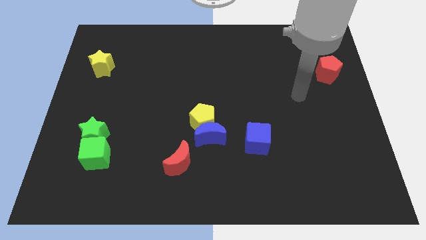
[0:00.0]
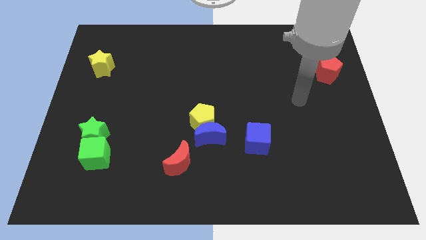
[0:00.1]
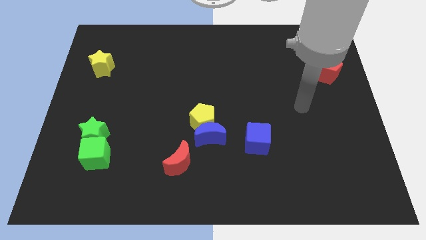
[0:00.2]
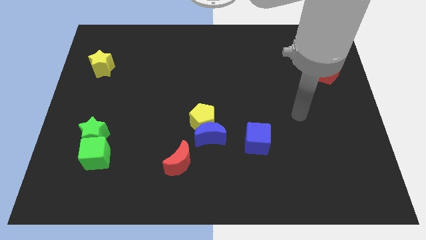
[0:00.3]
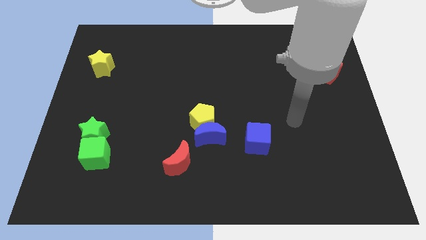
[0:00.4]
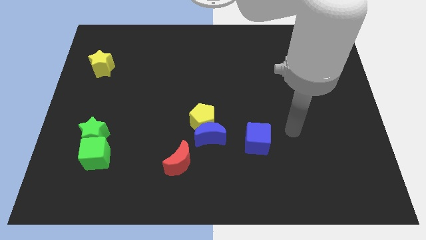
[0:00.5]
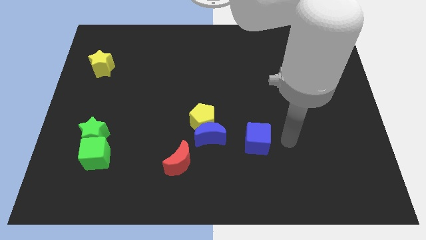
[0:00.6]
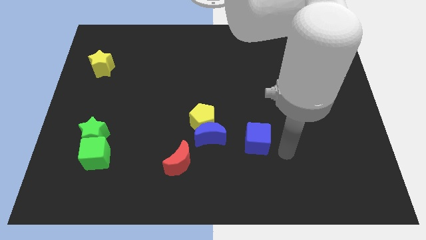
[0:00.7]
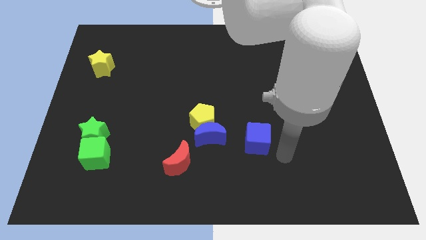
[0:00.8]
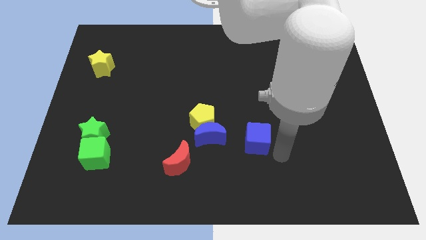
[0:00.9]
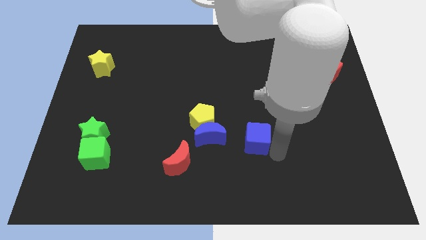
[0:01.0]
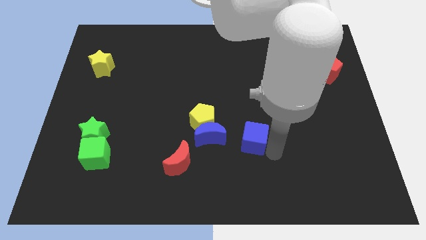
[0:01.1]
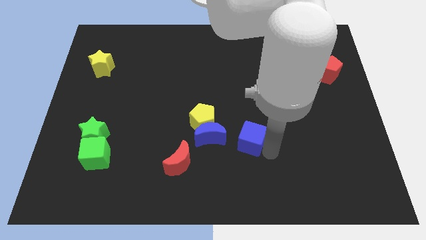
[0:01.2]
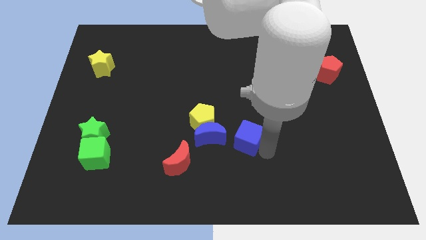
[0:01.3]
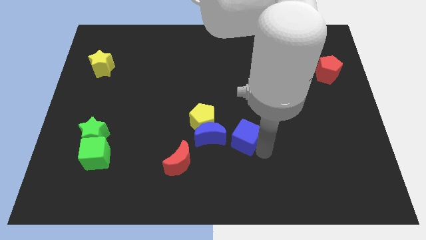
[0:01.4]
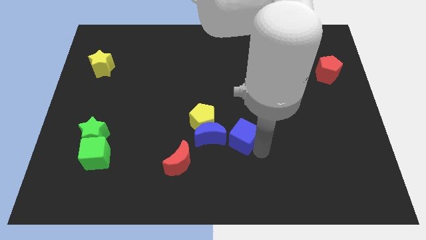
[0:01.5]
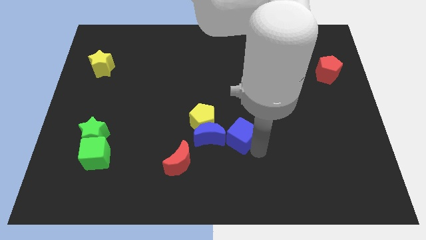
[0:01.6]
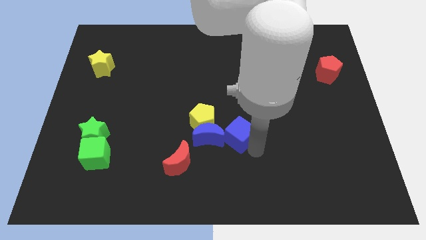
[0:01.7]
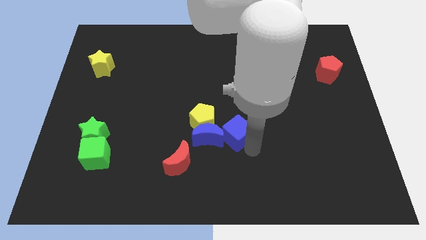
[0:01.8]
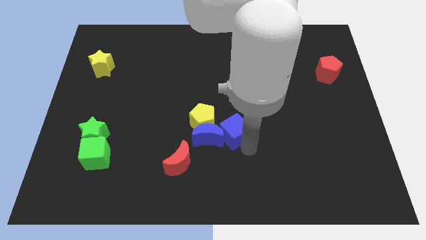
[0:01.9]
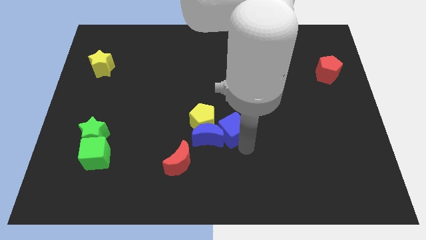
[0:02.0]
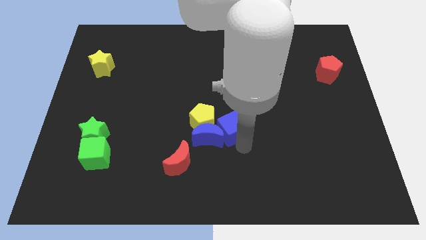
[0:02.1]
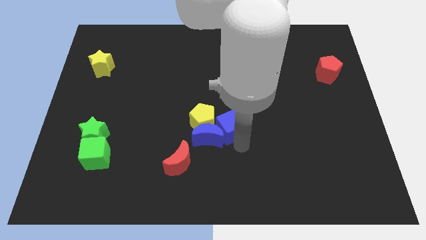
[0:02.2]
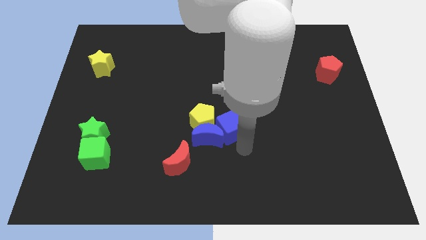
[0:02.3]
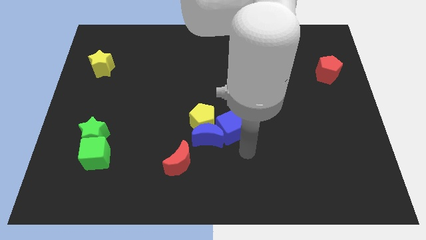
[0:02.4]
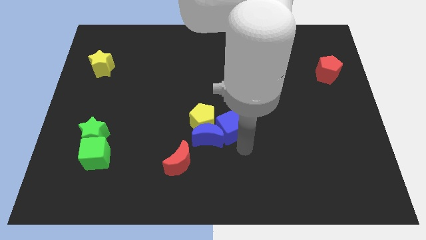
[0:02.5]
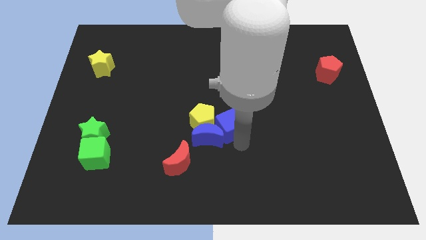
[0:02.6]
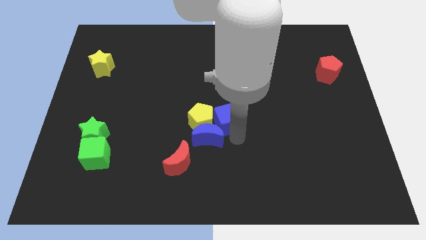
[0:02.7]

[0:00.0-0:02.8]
move the blue cube diagonally upwards and left slightly

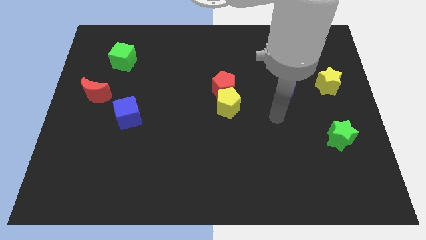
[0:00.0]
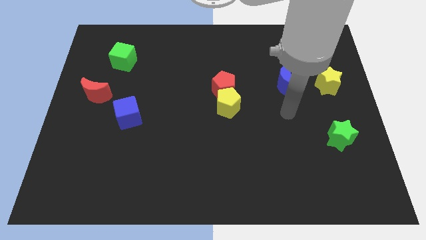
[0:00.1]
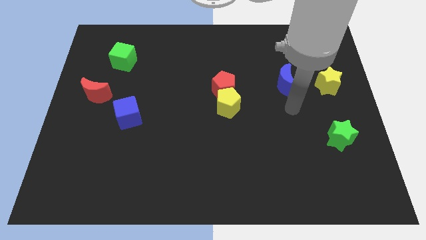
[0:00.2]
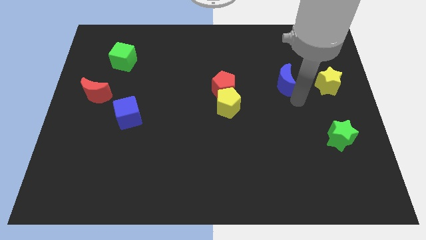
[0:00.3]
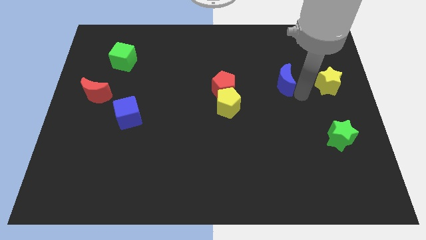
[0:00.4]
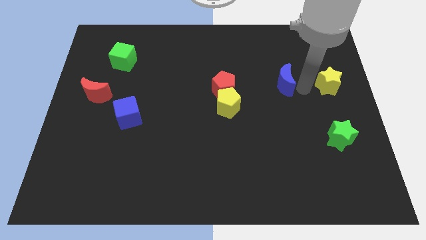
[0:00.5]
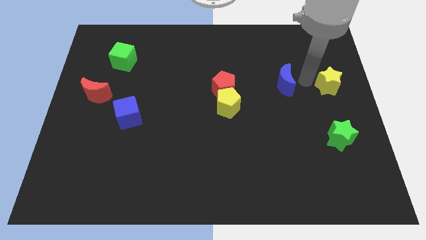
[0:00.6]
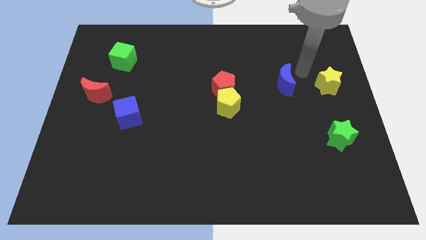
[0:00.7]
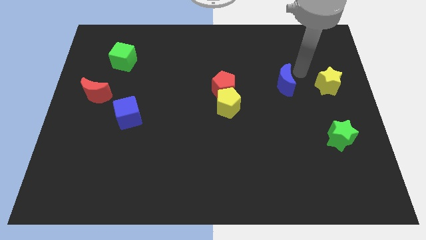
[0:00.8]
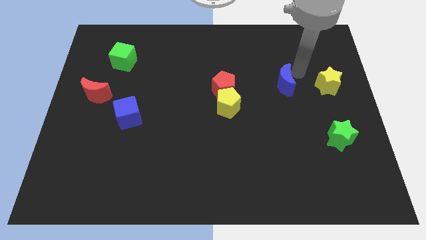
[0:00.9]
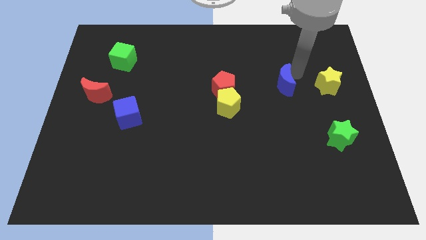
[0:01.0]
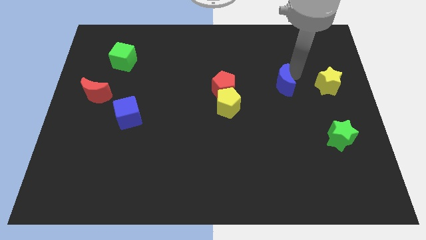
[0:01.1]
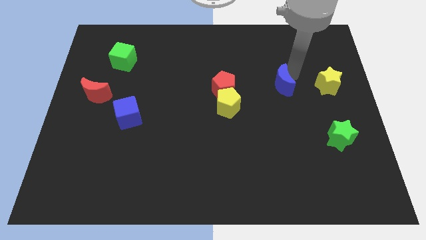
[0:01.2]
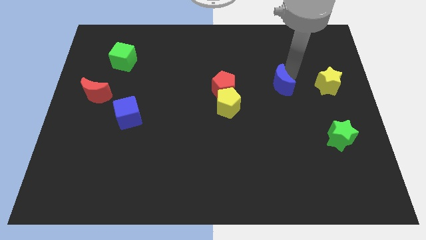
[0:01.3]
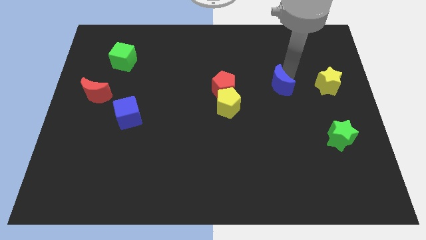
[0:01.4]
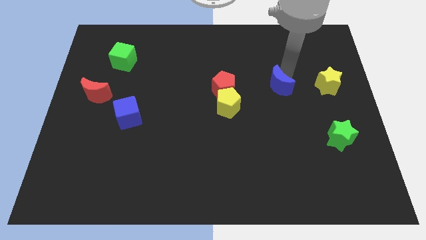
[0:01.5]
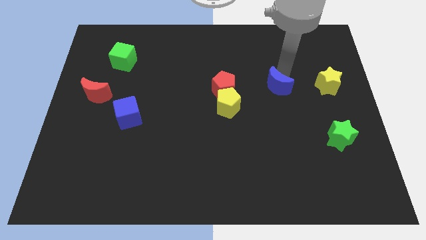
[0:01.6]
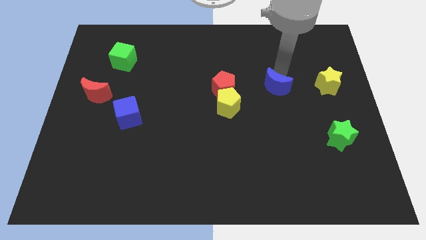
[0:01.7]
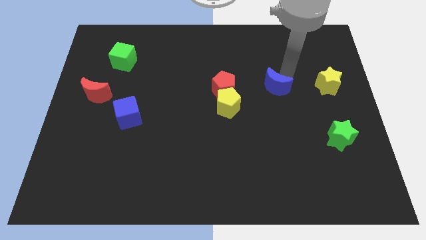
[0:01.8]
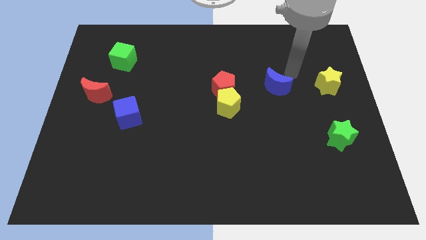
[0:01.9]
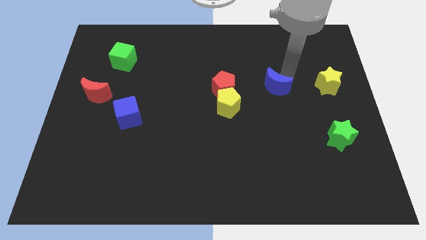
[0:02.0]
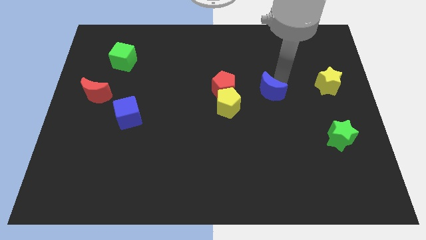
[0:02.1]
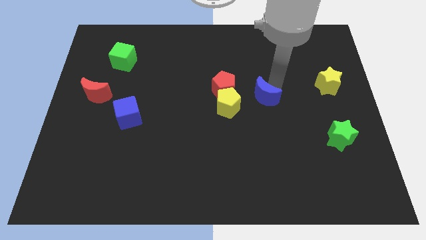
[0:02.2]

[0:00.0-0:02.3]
move the blue moon a bit down and to the left

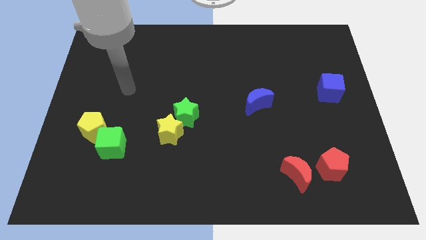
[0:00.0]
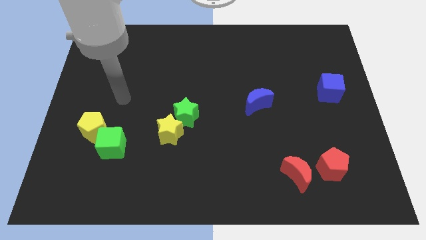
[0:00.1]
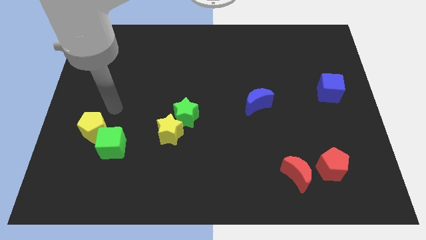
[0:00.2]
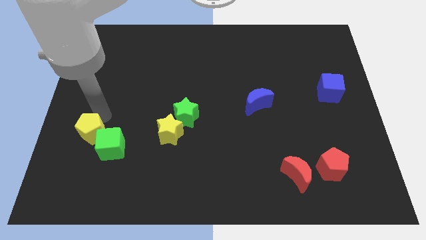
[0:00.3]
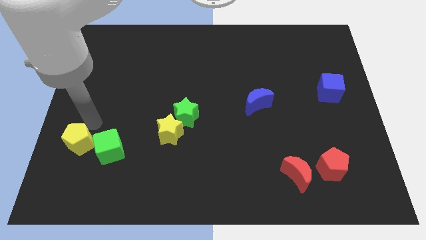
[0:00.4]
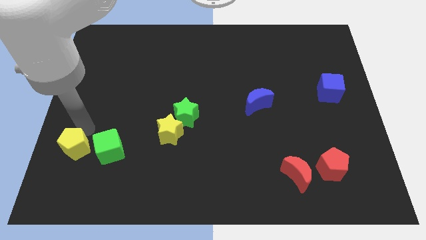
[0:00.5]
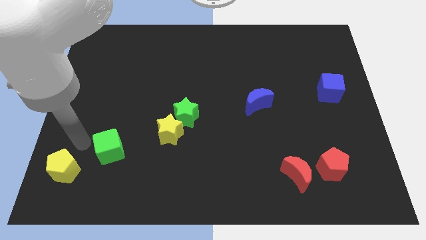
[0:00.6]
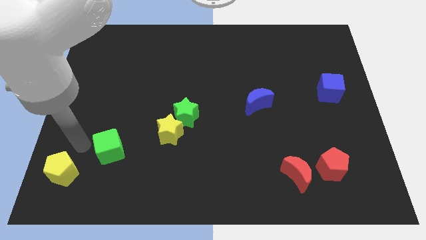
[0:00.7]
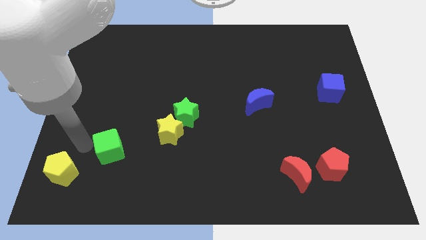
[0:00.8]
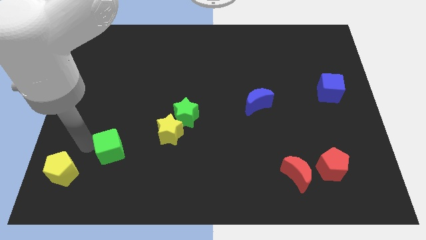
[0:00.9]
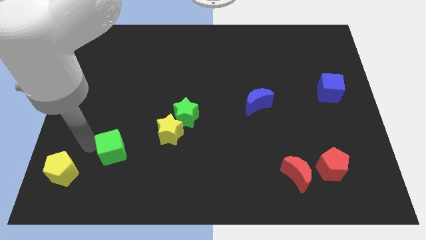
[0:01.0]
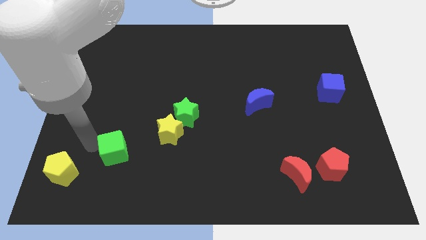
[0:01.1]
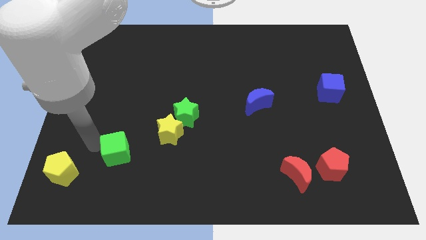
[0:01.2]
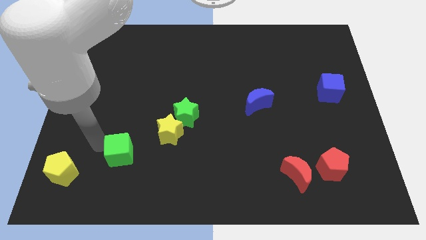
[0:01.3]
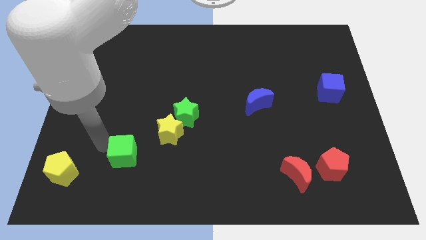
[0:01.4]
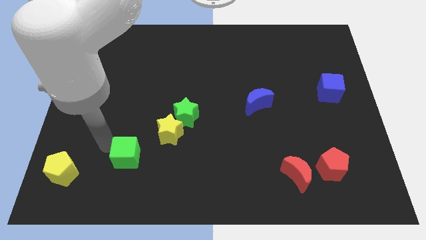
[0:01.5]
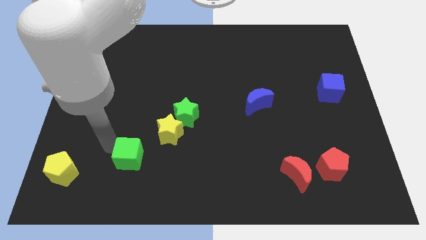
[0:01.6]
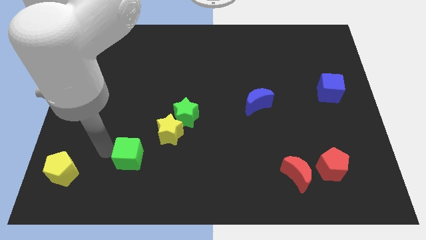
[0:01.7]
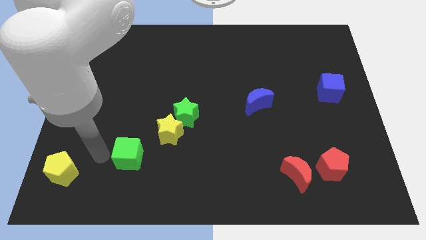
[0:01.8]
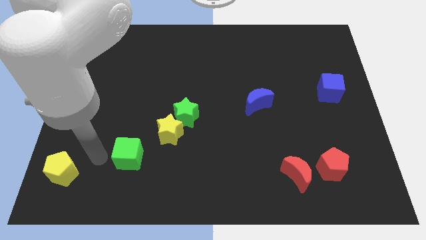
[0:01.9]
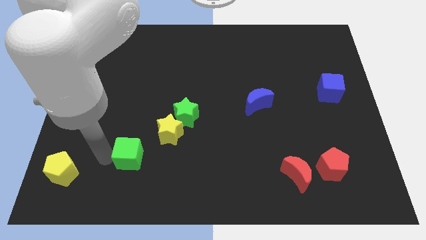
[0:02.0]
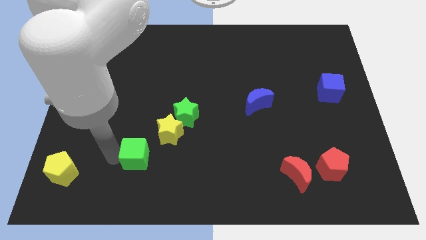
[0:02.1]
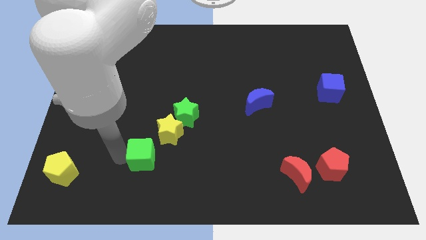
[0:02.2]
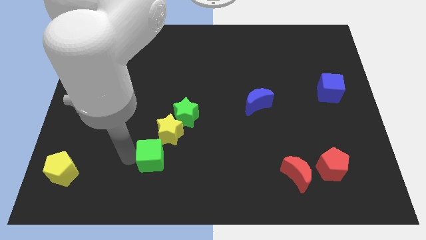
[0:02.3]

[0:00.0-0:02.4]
slightly push the green cube to the right

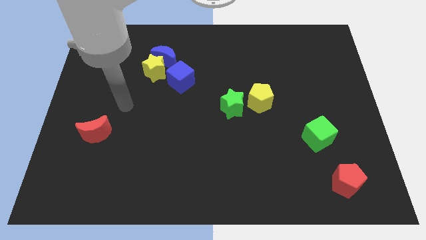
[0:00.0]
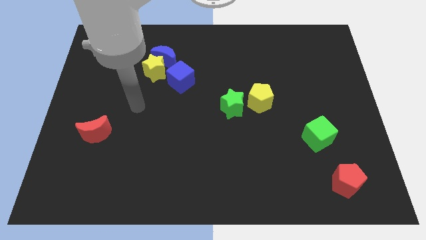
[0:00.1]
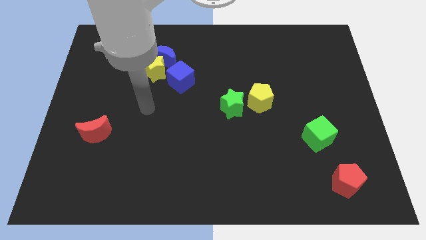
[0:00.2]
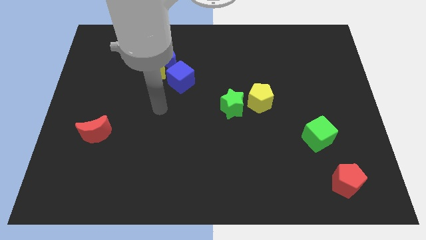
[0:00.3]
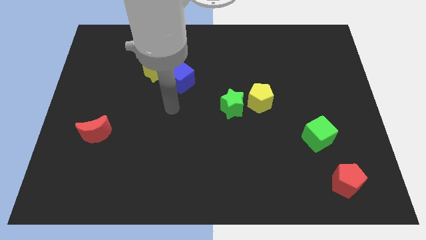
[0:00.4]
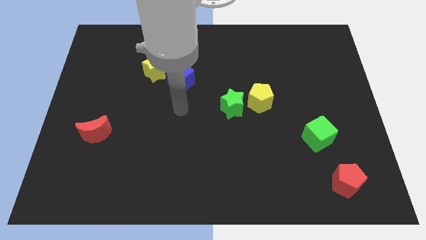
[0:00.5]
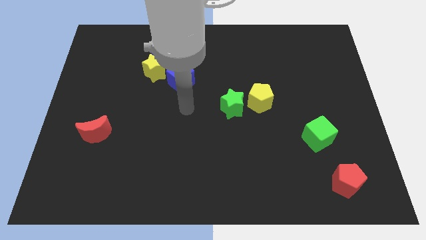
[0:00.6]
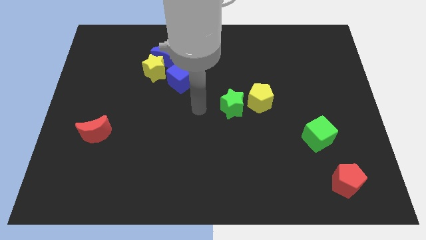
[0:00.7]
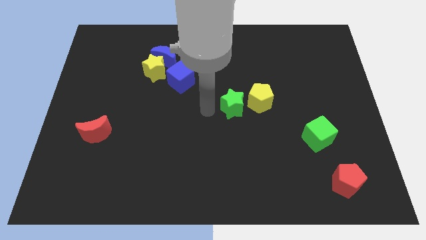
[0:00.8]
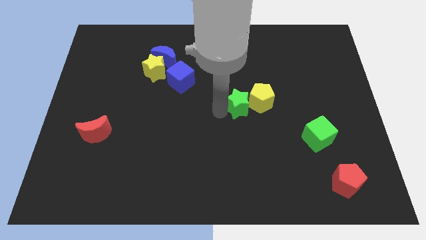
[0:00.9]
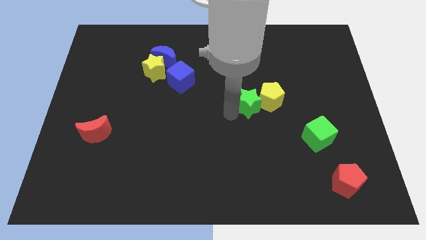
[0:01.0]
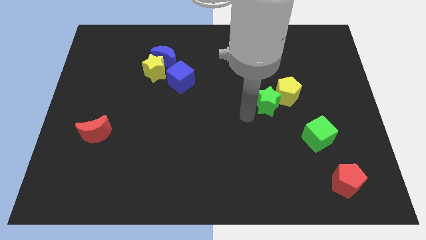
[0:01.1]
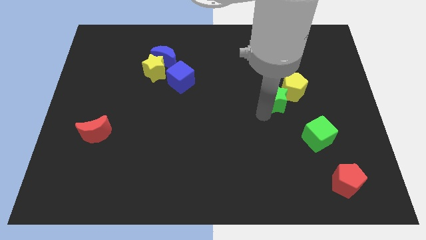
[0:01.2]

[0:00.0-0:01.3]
slightly move the yellow pentagon upwards and to the right diagonally
